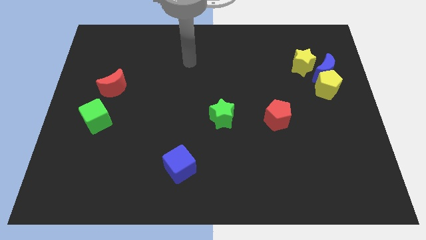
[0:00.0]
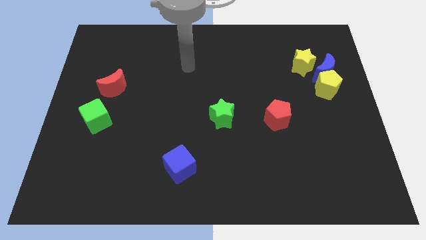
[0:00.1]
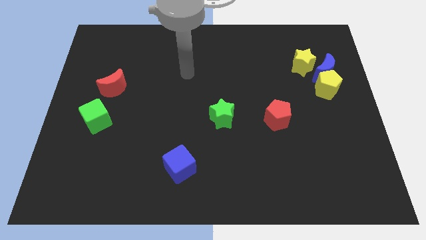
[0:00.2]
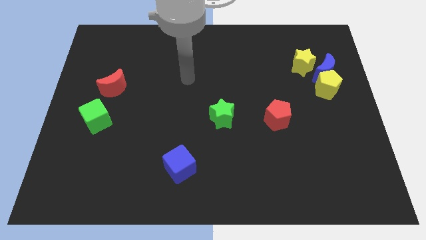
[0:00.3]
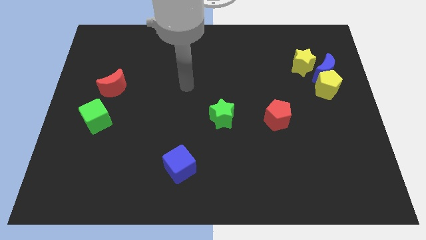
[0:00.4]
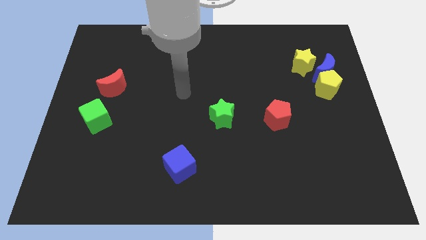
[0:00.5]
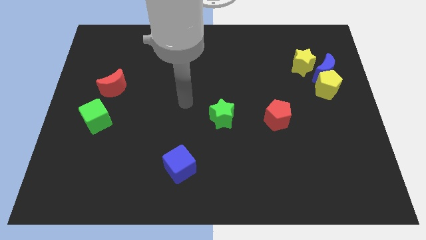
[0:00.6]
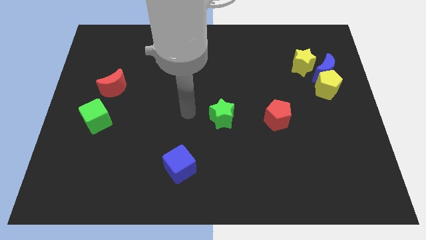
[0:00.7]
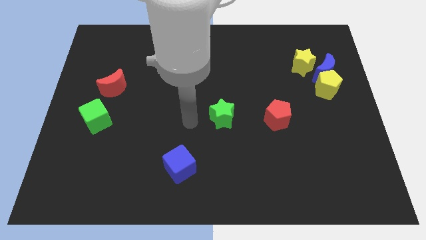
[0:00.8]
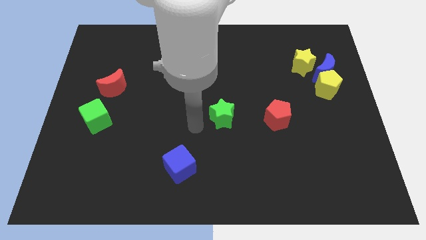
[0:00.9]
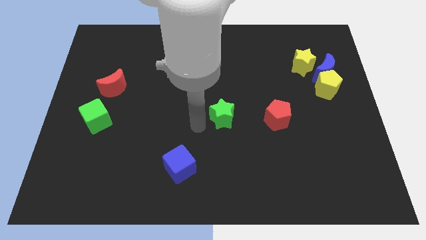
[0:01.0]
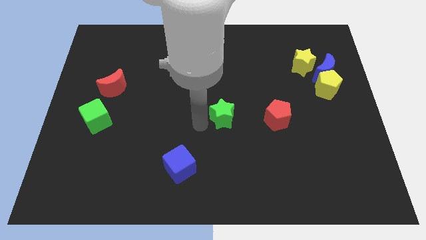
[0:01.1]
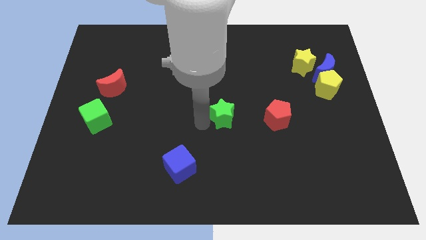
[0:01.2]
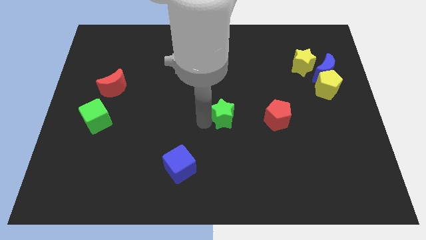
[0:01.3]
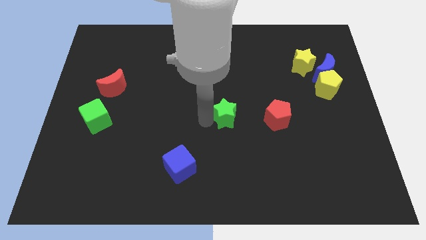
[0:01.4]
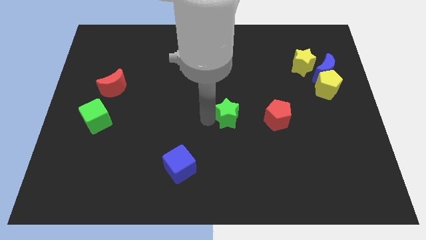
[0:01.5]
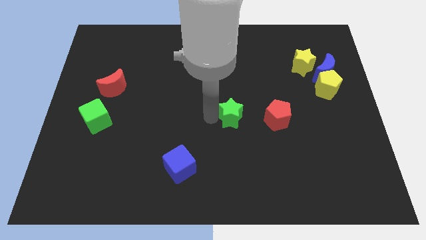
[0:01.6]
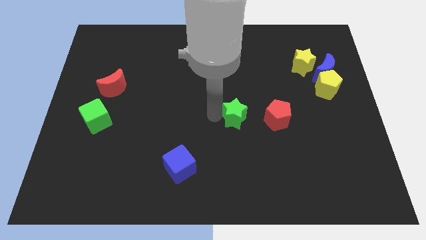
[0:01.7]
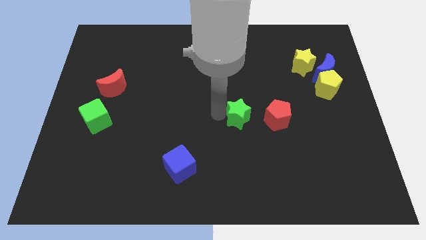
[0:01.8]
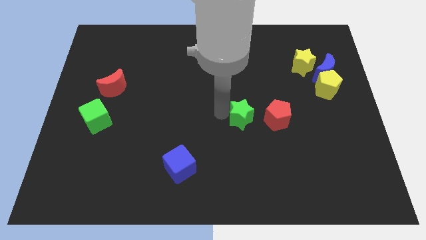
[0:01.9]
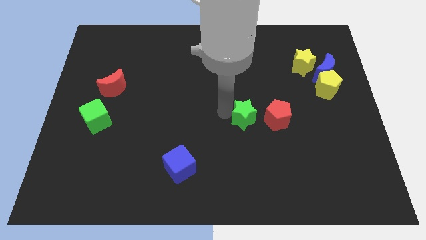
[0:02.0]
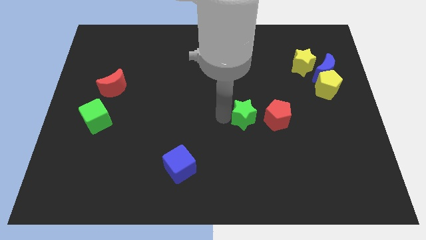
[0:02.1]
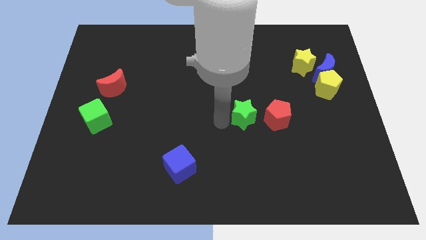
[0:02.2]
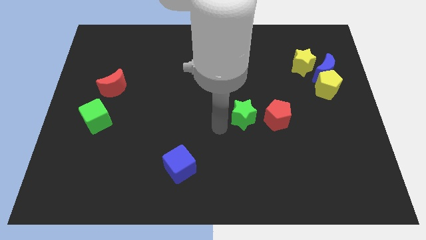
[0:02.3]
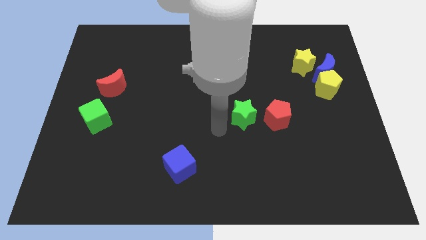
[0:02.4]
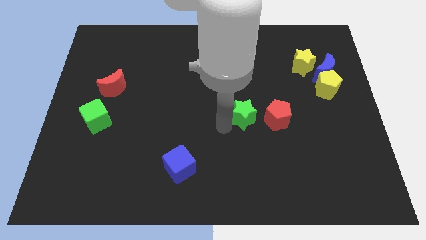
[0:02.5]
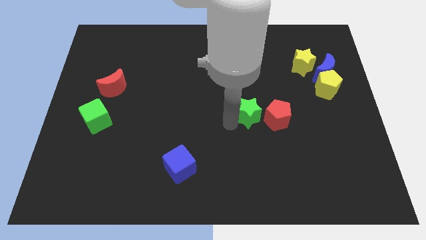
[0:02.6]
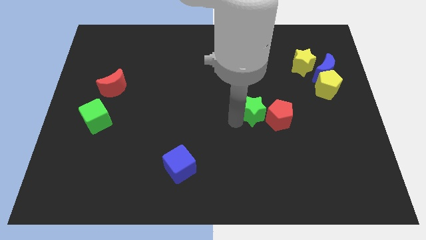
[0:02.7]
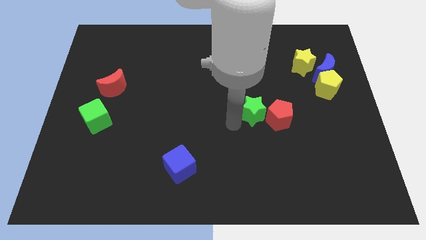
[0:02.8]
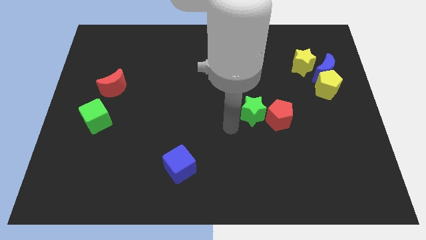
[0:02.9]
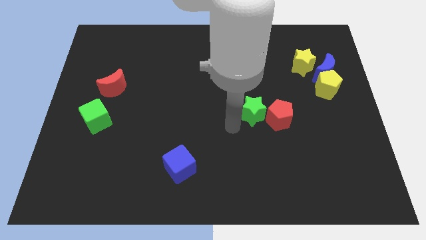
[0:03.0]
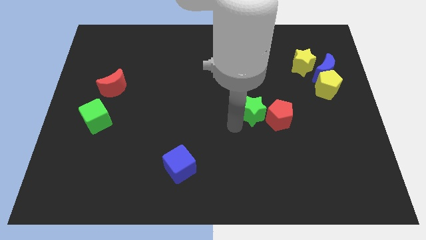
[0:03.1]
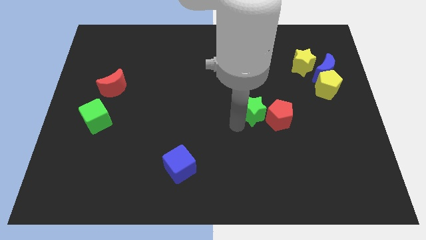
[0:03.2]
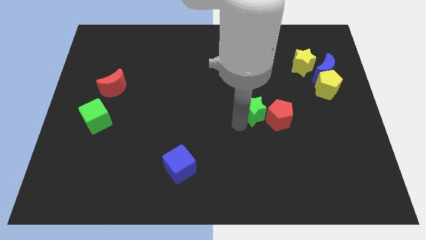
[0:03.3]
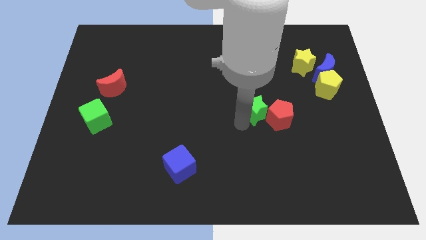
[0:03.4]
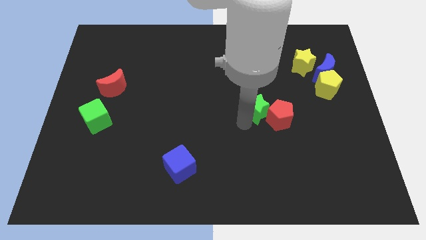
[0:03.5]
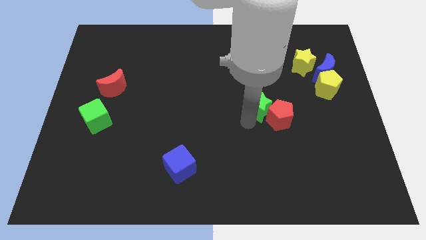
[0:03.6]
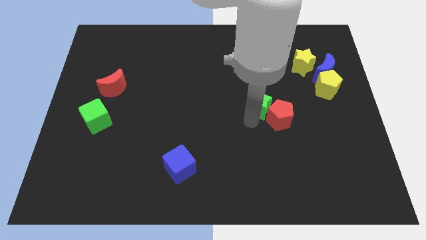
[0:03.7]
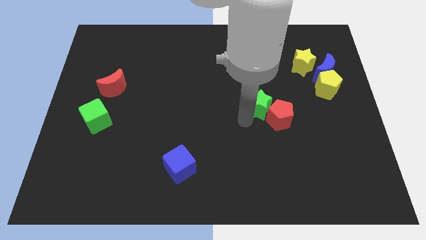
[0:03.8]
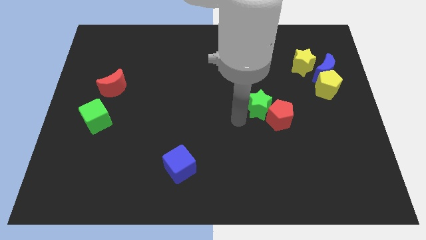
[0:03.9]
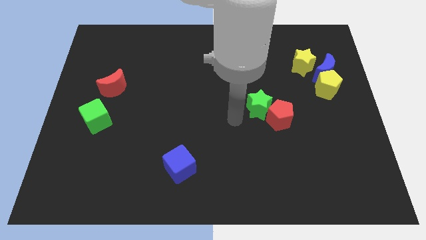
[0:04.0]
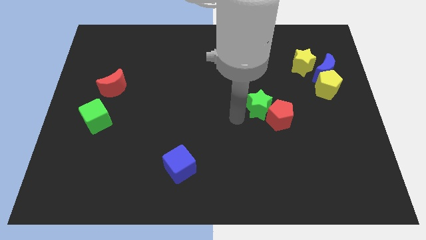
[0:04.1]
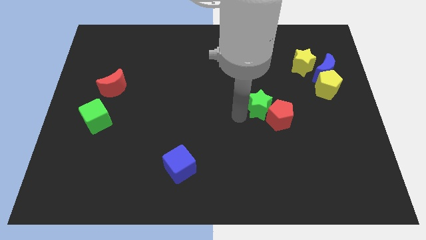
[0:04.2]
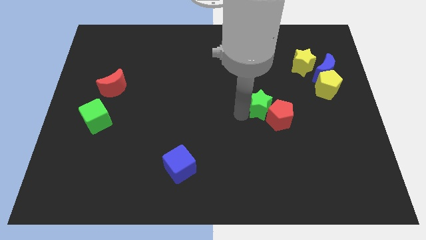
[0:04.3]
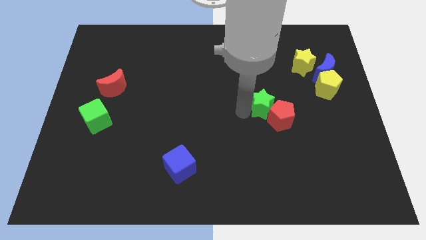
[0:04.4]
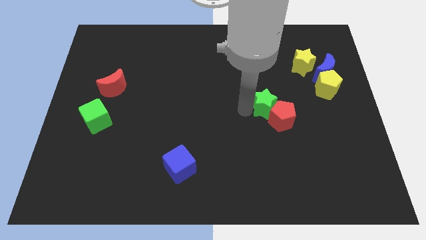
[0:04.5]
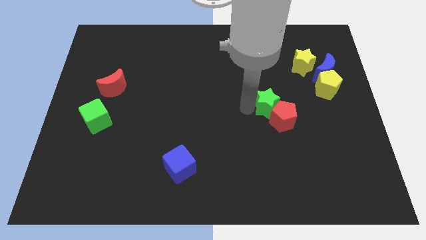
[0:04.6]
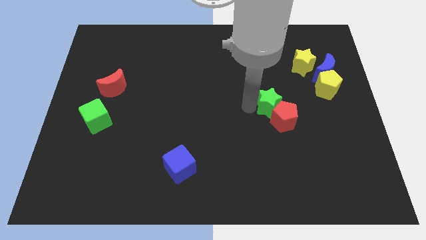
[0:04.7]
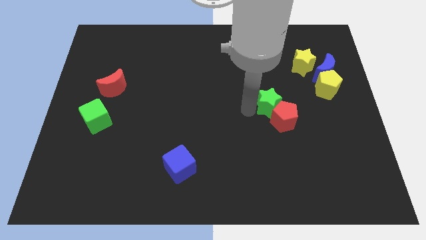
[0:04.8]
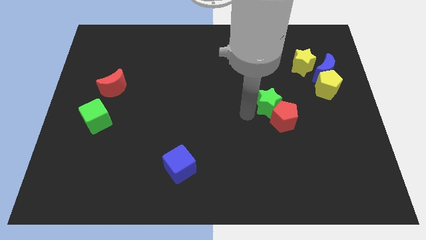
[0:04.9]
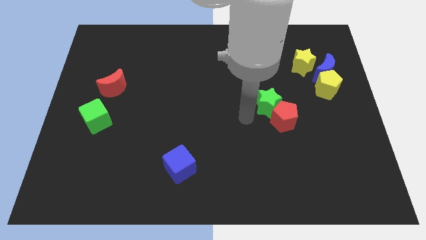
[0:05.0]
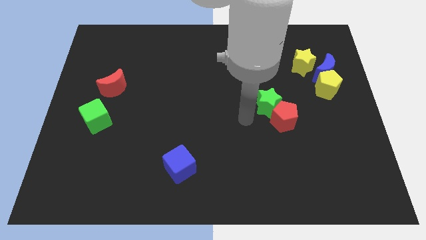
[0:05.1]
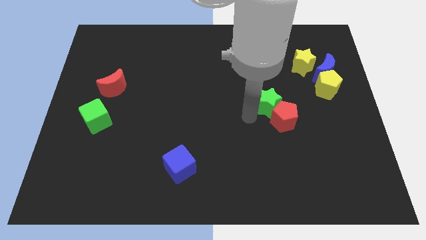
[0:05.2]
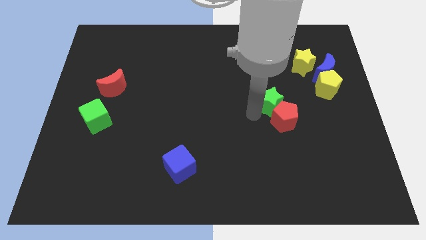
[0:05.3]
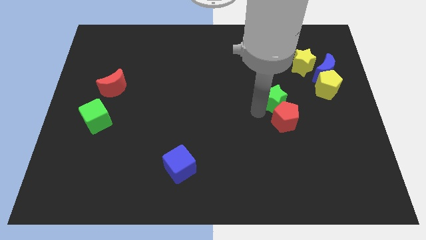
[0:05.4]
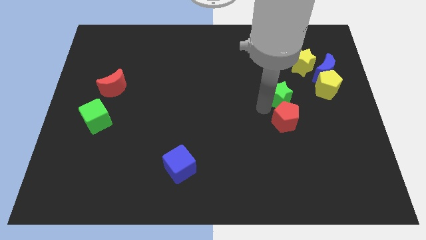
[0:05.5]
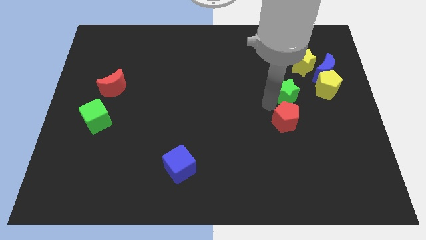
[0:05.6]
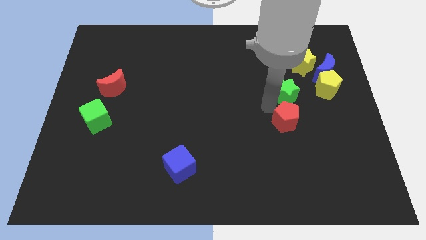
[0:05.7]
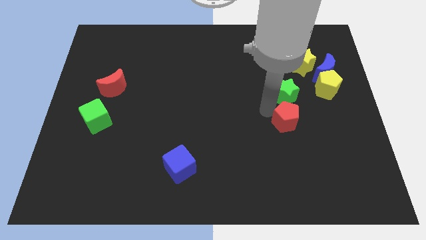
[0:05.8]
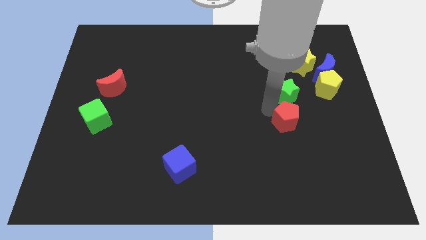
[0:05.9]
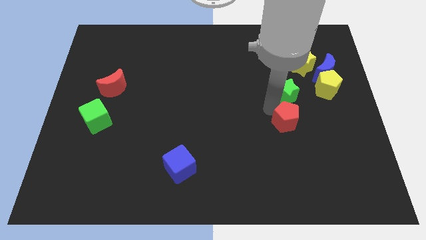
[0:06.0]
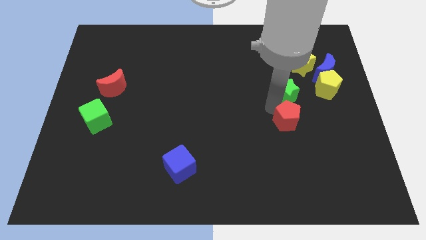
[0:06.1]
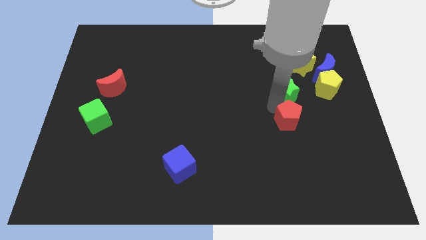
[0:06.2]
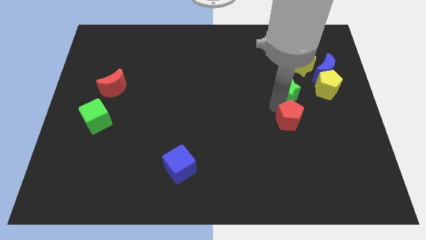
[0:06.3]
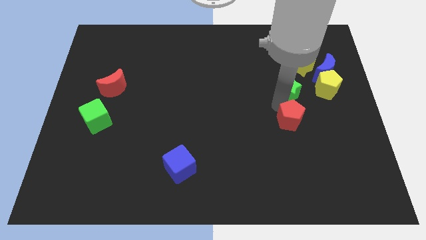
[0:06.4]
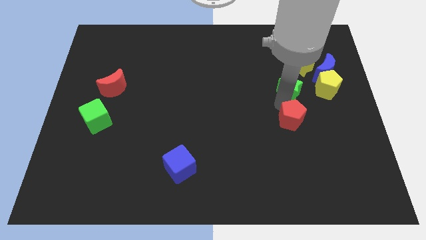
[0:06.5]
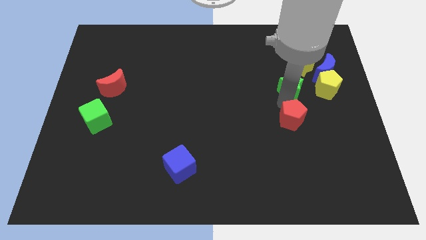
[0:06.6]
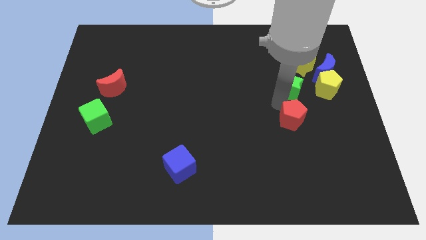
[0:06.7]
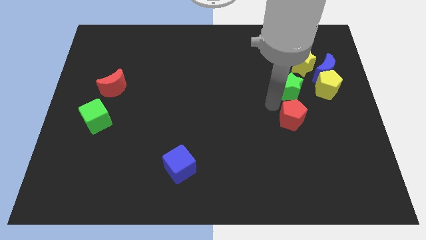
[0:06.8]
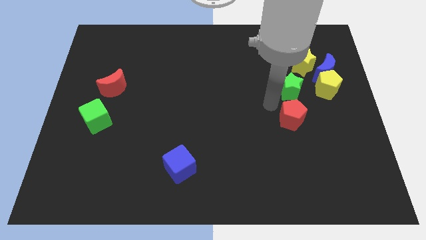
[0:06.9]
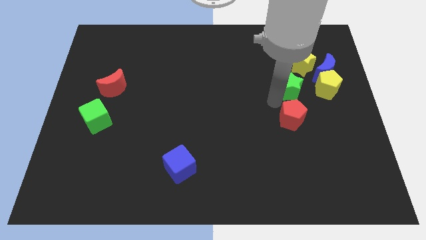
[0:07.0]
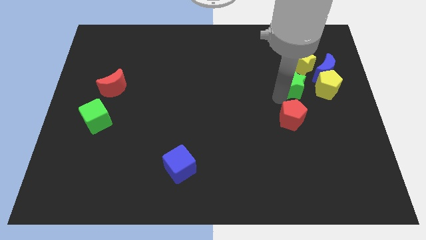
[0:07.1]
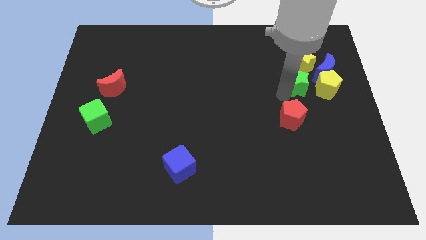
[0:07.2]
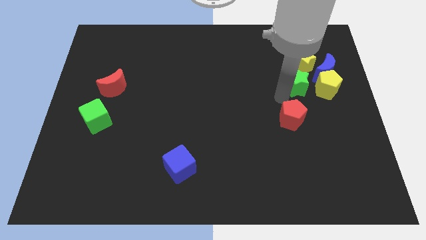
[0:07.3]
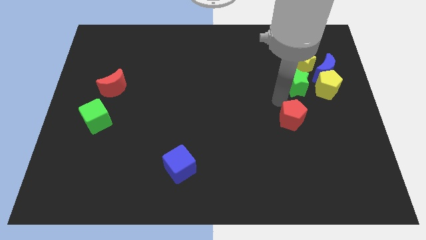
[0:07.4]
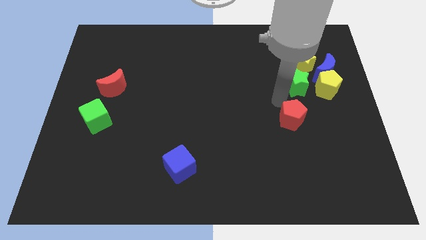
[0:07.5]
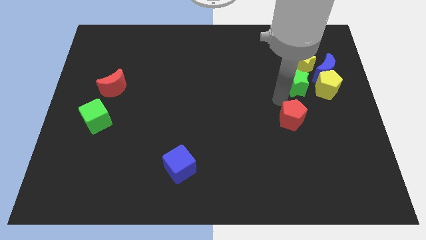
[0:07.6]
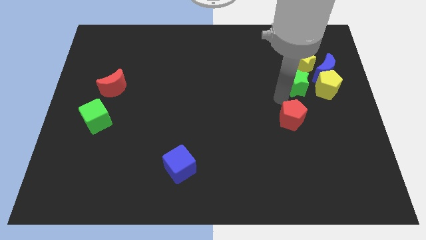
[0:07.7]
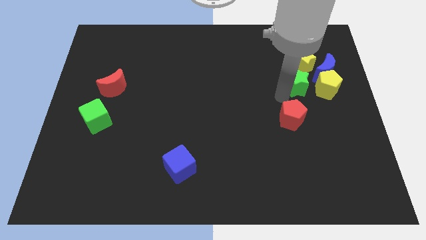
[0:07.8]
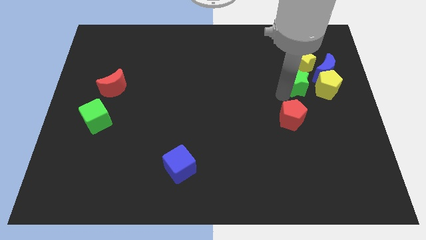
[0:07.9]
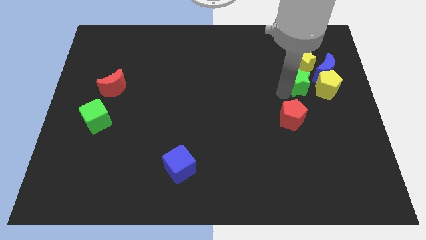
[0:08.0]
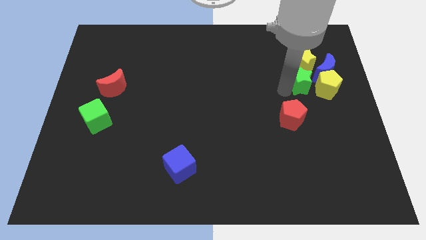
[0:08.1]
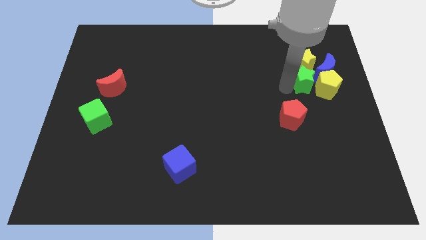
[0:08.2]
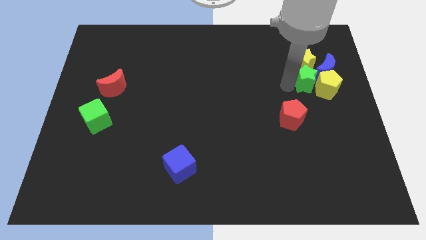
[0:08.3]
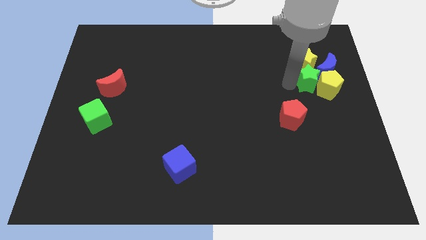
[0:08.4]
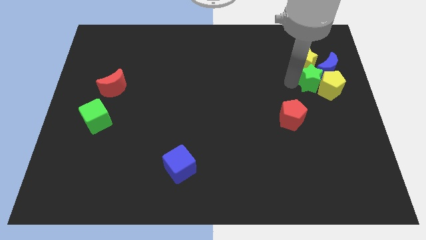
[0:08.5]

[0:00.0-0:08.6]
push the green star close to the blue moon
